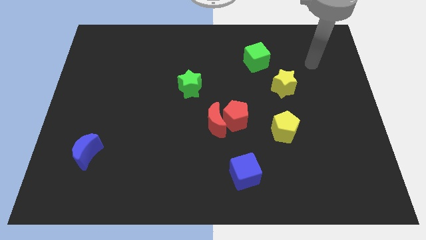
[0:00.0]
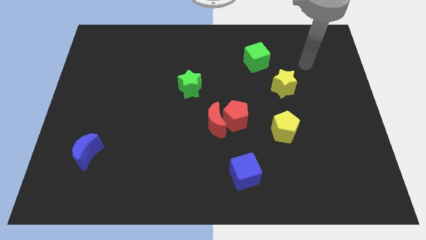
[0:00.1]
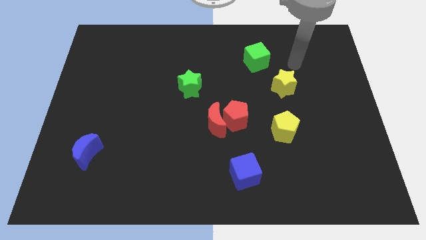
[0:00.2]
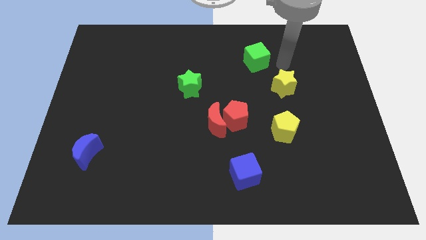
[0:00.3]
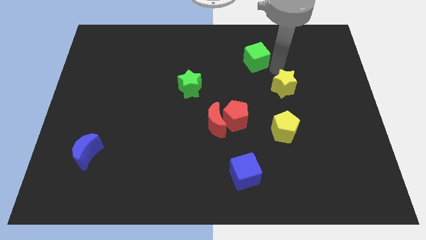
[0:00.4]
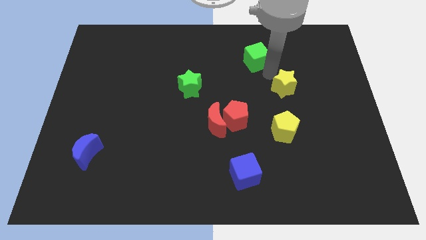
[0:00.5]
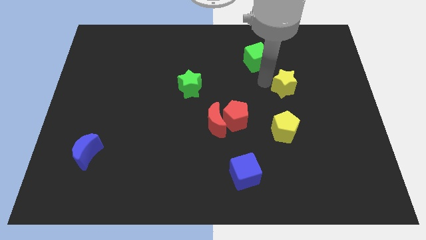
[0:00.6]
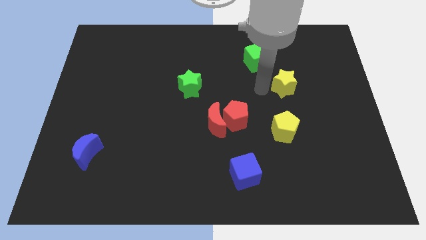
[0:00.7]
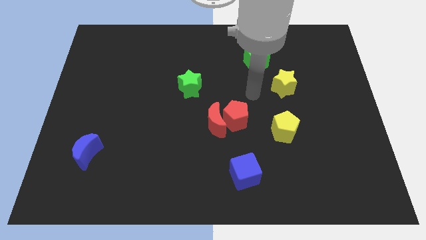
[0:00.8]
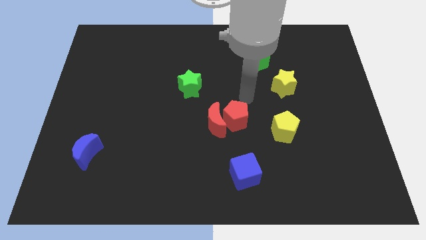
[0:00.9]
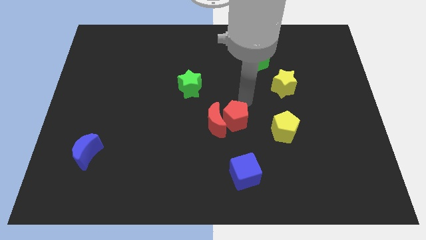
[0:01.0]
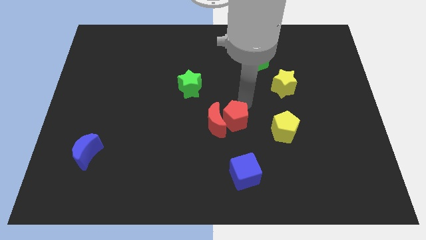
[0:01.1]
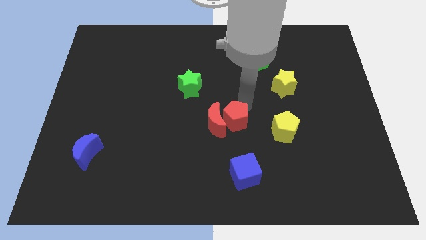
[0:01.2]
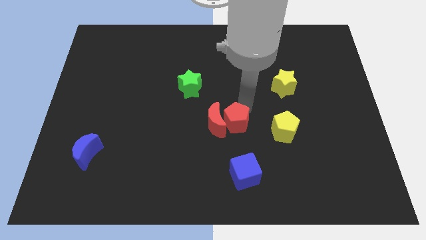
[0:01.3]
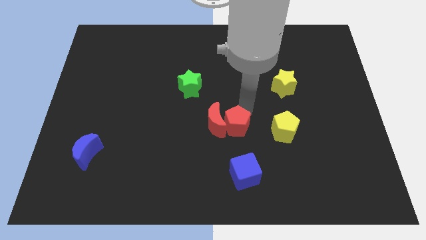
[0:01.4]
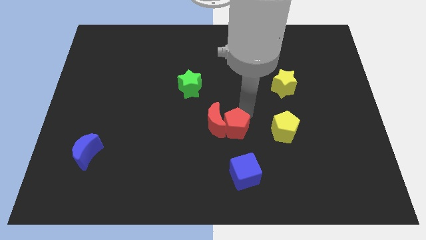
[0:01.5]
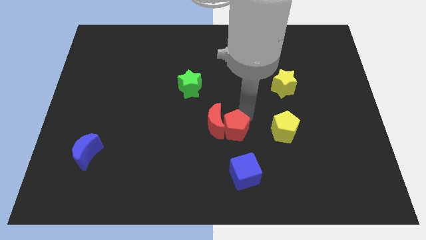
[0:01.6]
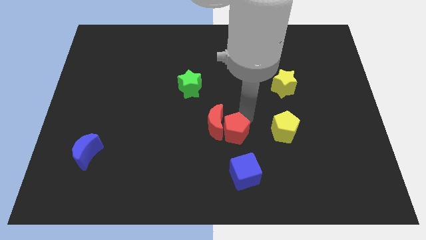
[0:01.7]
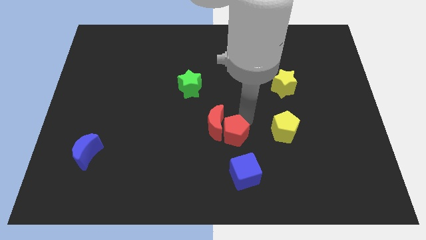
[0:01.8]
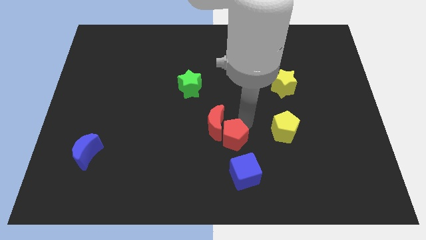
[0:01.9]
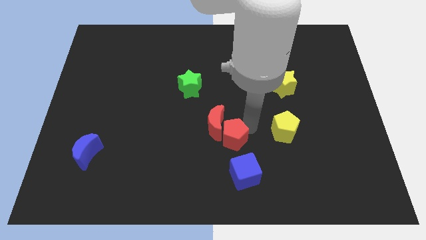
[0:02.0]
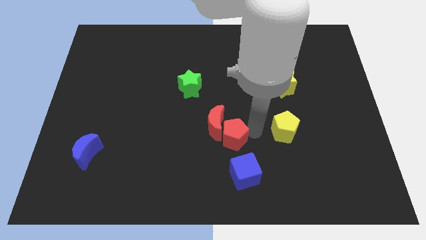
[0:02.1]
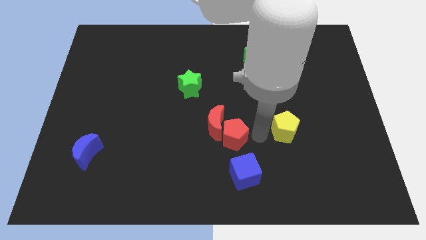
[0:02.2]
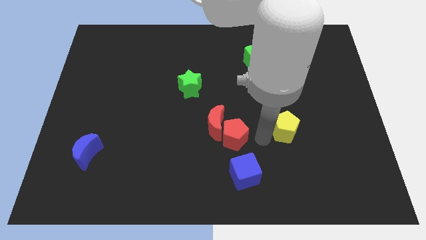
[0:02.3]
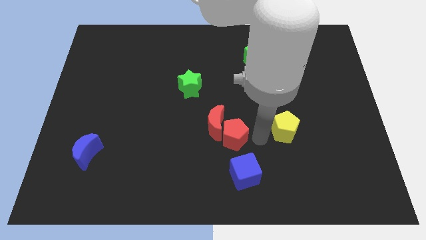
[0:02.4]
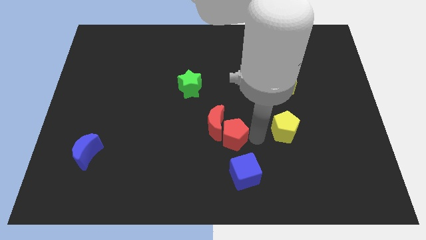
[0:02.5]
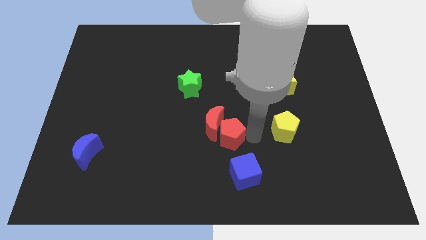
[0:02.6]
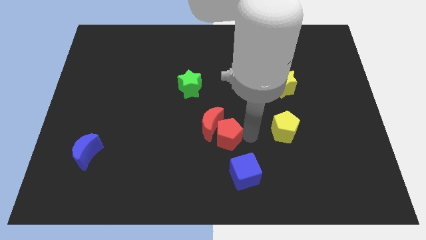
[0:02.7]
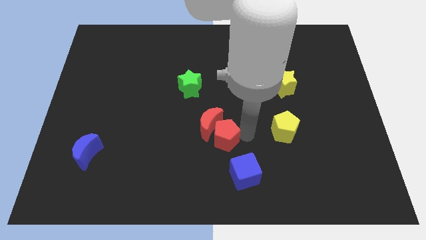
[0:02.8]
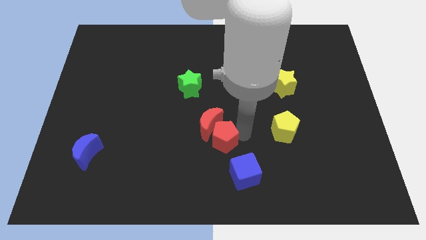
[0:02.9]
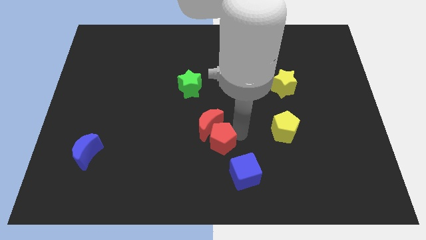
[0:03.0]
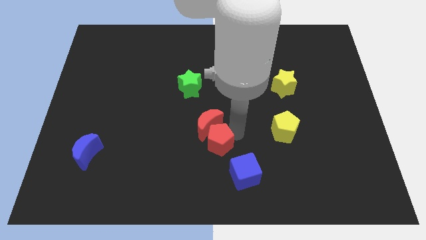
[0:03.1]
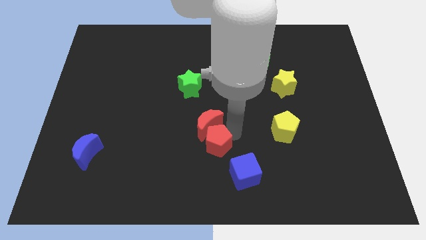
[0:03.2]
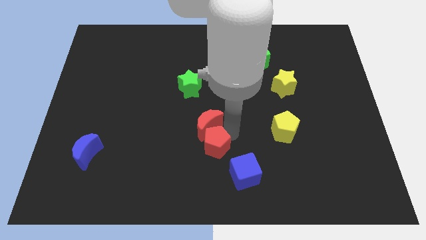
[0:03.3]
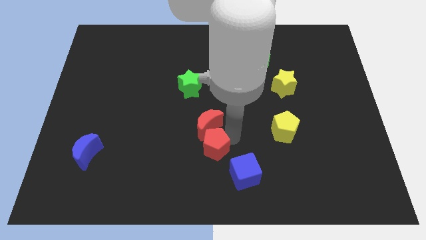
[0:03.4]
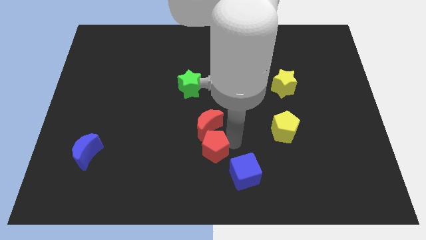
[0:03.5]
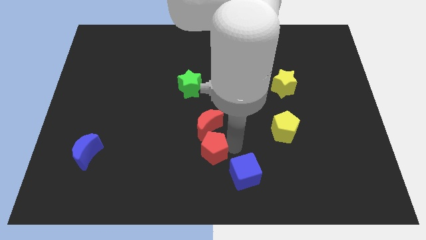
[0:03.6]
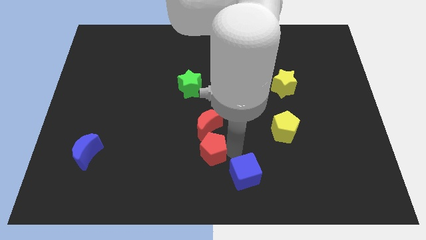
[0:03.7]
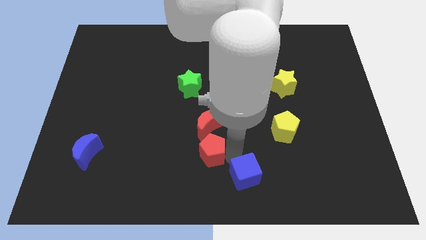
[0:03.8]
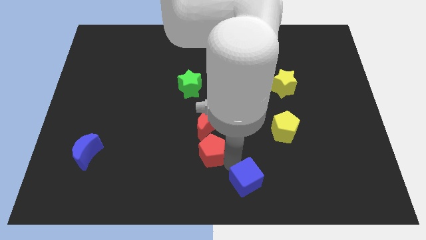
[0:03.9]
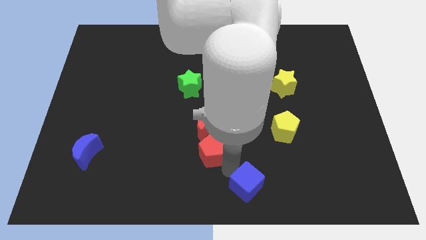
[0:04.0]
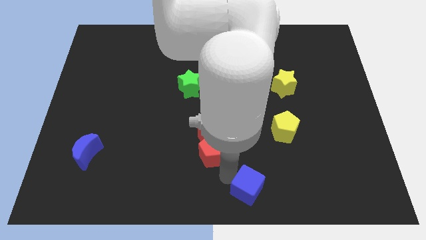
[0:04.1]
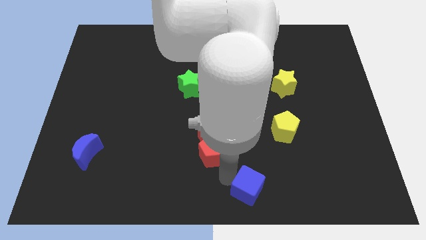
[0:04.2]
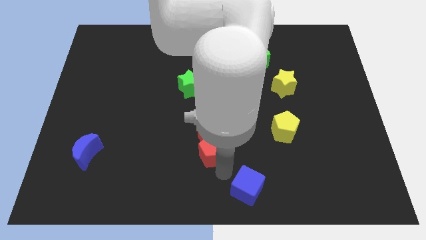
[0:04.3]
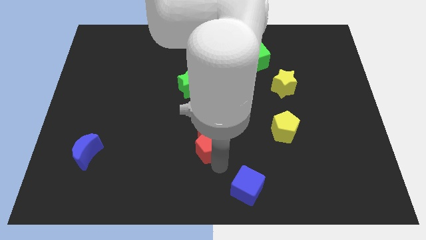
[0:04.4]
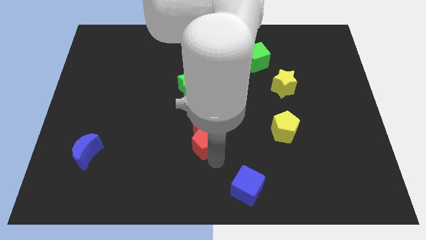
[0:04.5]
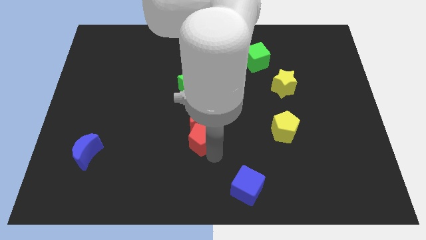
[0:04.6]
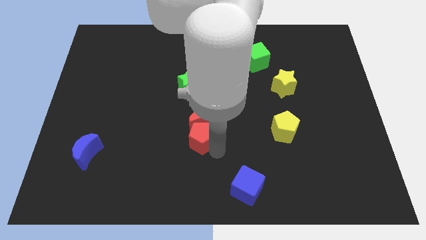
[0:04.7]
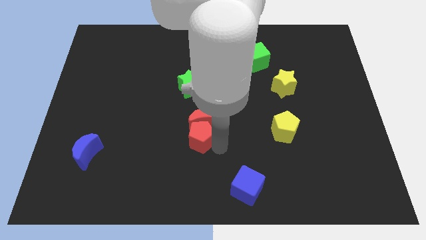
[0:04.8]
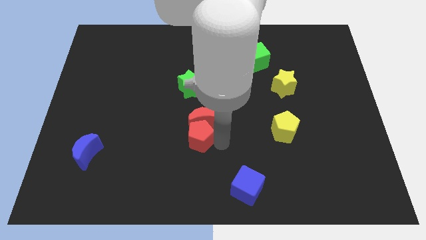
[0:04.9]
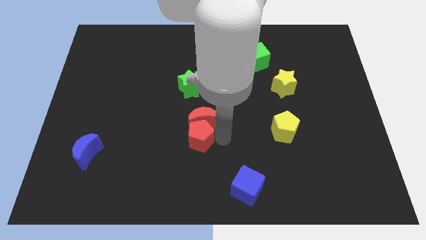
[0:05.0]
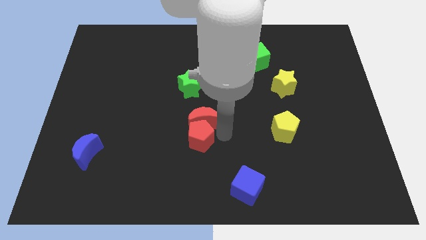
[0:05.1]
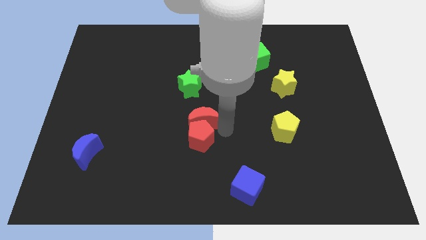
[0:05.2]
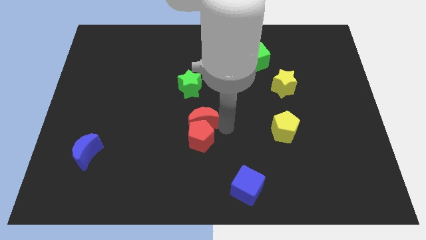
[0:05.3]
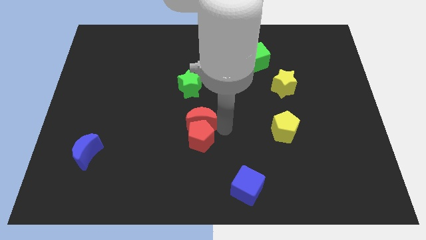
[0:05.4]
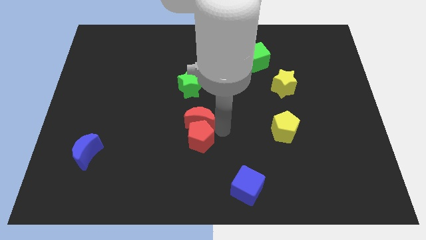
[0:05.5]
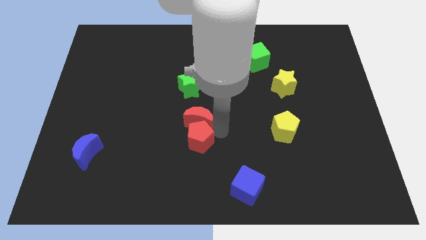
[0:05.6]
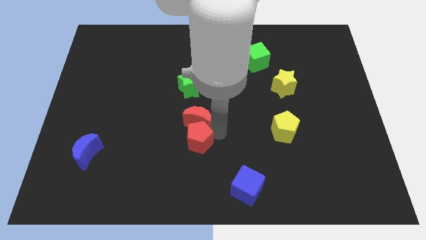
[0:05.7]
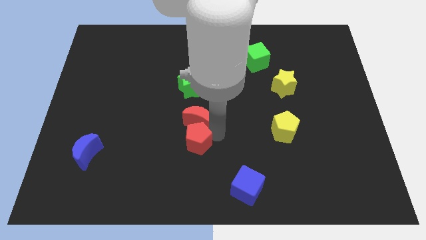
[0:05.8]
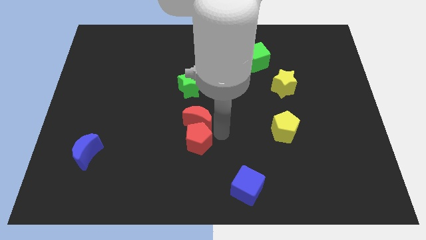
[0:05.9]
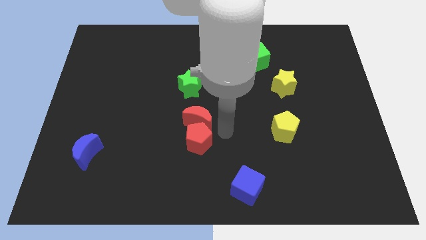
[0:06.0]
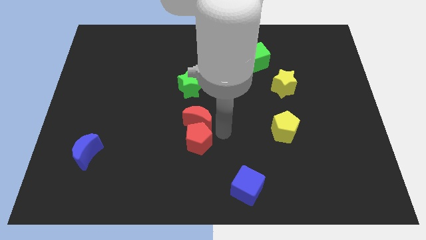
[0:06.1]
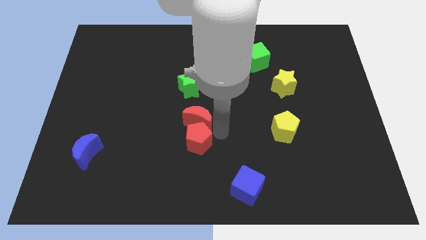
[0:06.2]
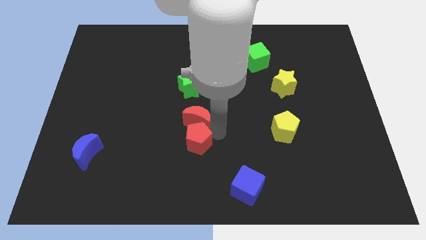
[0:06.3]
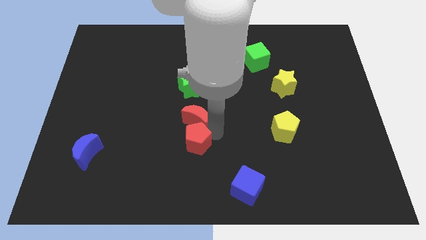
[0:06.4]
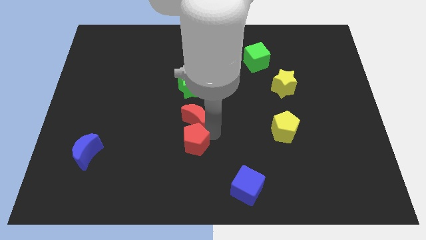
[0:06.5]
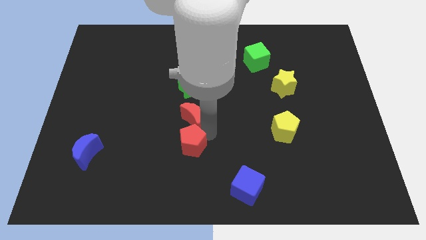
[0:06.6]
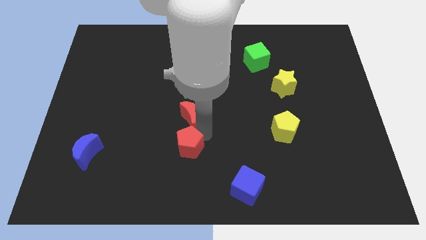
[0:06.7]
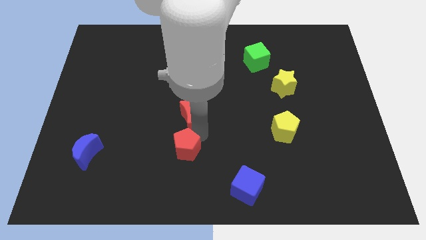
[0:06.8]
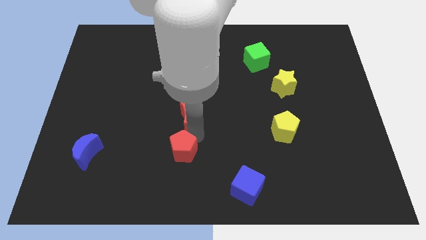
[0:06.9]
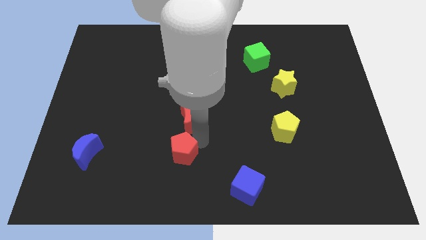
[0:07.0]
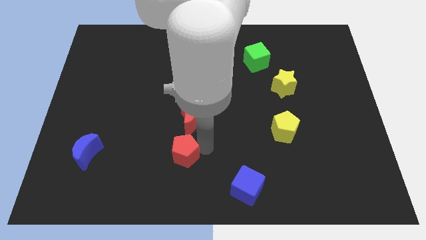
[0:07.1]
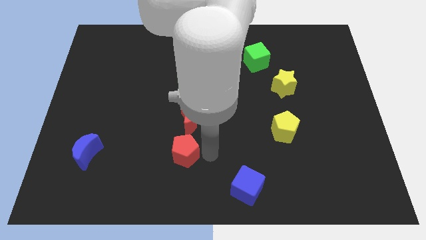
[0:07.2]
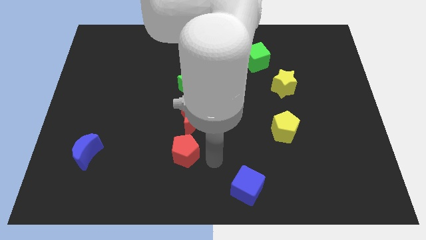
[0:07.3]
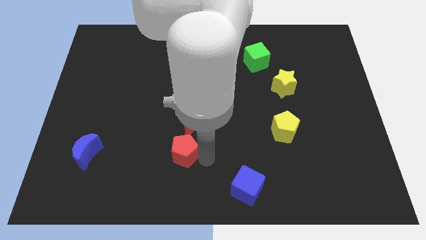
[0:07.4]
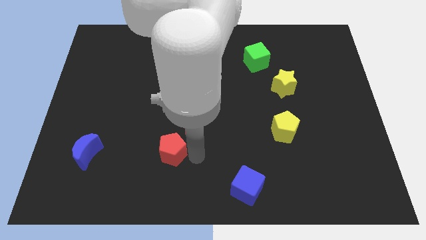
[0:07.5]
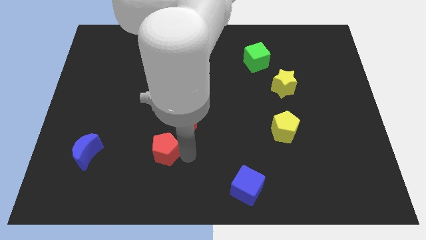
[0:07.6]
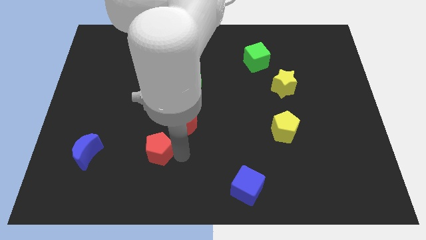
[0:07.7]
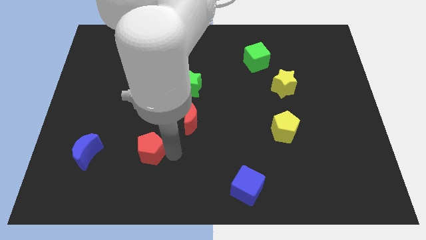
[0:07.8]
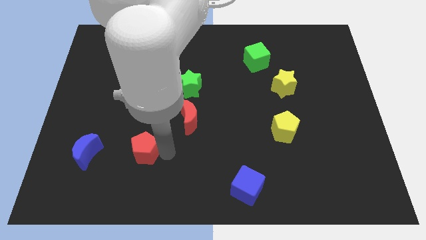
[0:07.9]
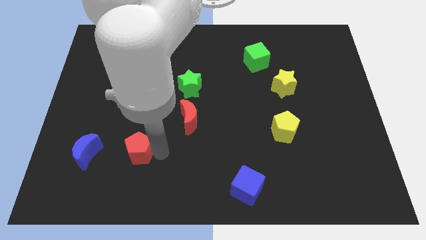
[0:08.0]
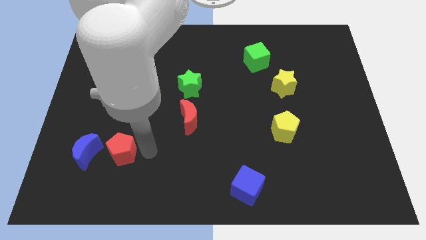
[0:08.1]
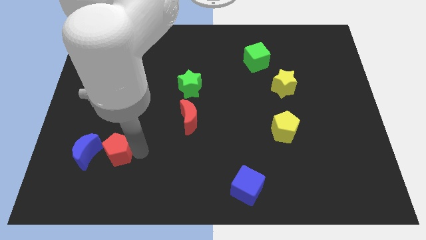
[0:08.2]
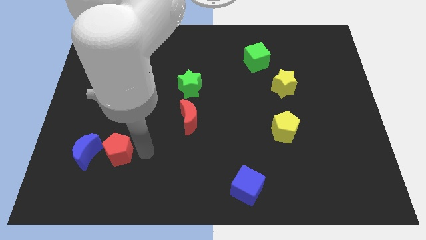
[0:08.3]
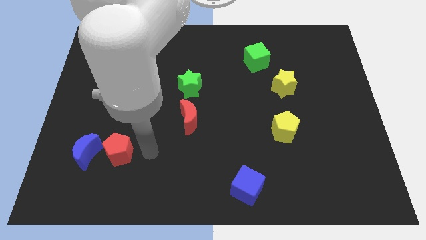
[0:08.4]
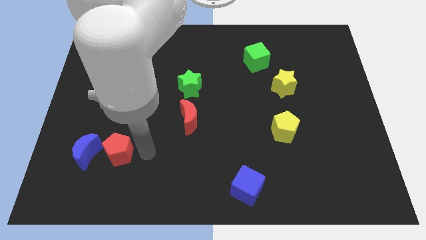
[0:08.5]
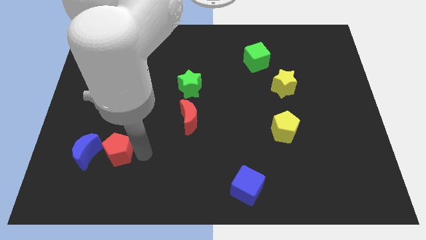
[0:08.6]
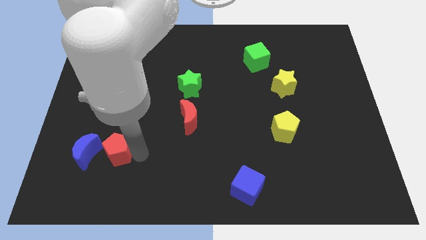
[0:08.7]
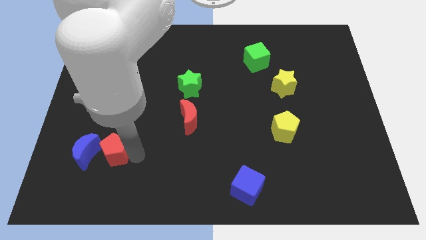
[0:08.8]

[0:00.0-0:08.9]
push the red pentagon to the blue moon
